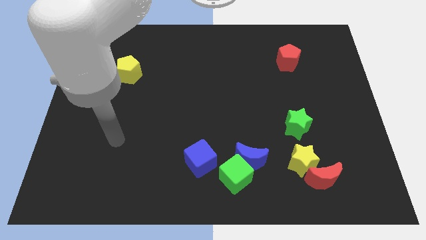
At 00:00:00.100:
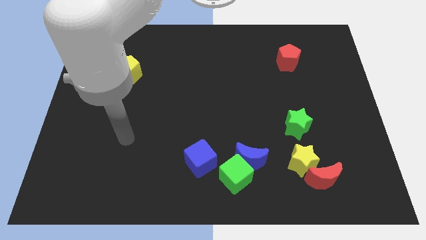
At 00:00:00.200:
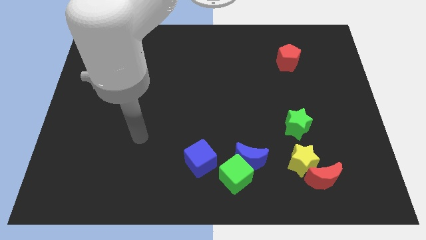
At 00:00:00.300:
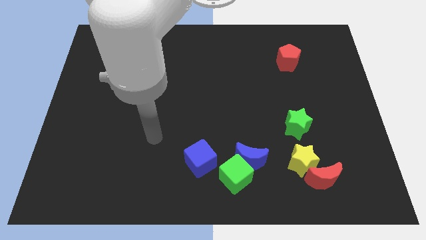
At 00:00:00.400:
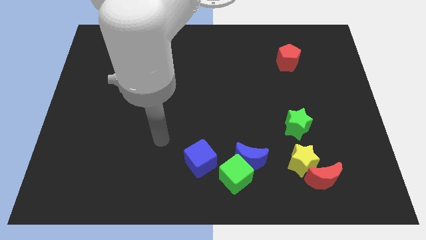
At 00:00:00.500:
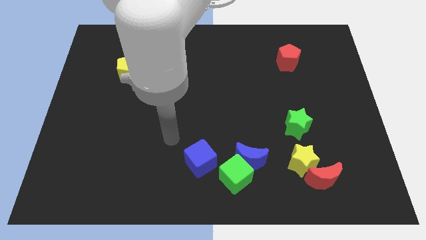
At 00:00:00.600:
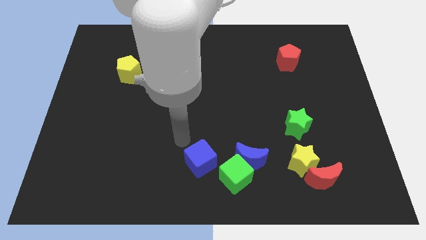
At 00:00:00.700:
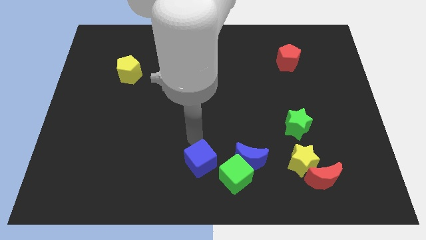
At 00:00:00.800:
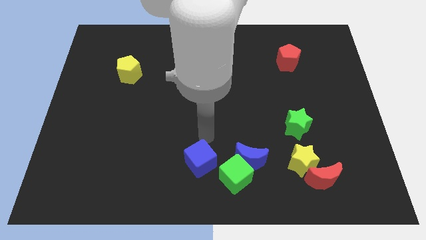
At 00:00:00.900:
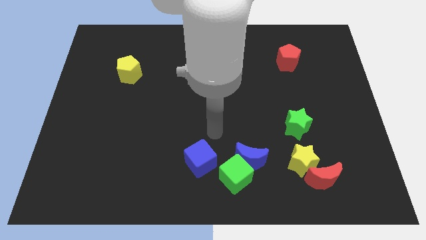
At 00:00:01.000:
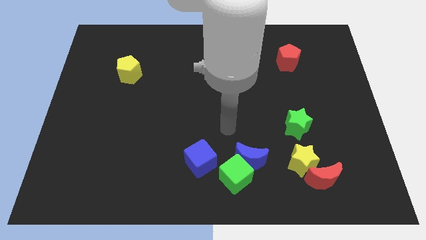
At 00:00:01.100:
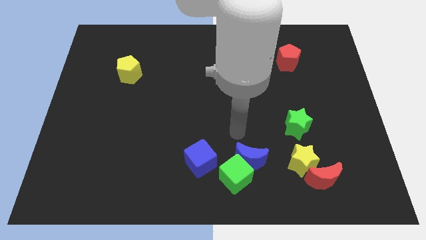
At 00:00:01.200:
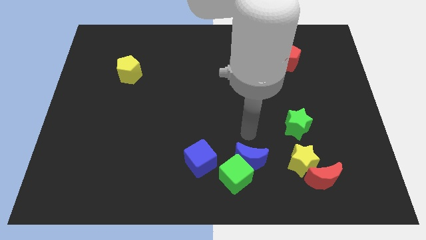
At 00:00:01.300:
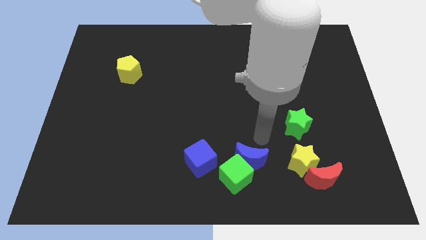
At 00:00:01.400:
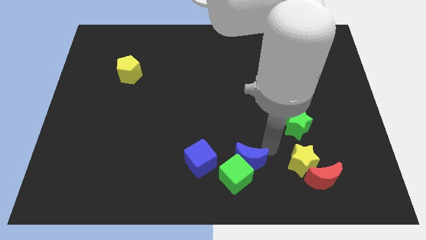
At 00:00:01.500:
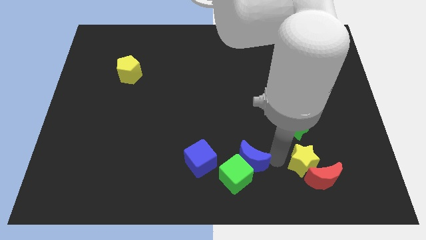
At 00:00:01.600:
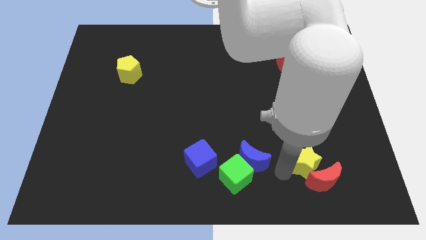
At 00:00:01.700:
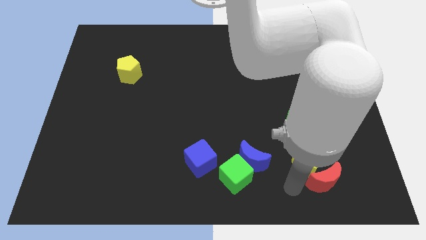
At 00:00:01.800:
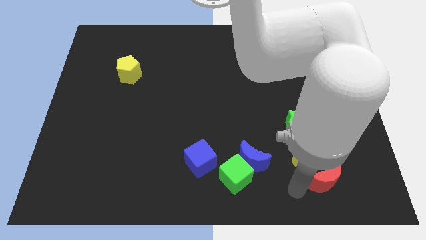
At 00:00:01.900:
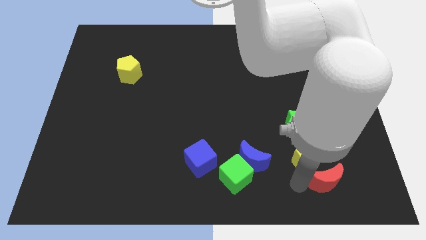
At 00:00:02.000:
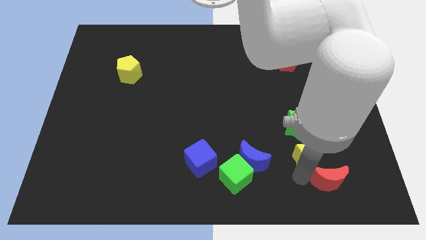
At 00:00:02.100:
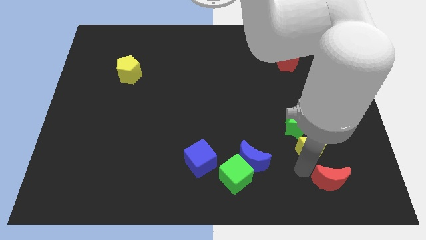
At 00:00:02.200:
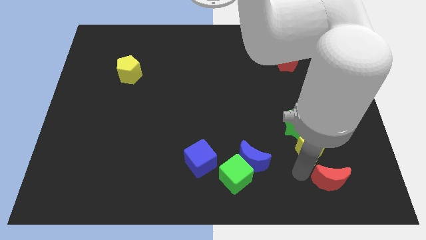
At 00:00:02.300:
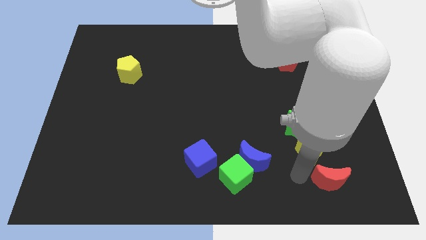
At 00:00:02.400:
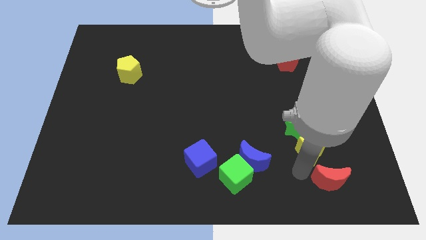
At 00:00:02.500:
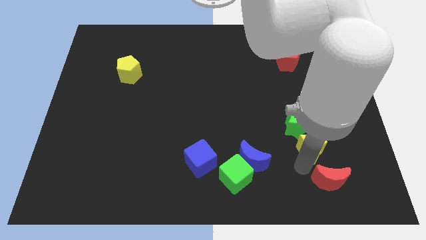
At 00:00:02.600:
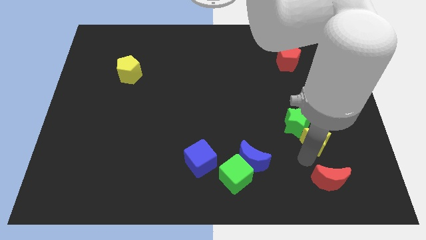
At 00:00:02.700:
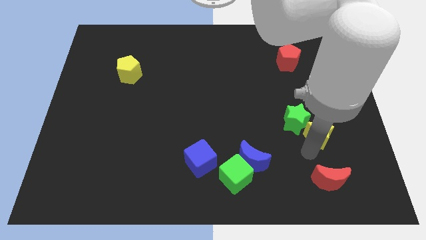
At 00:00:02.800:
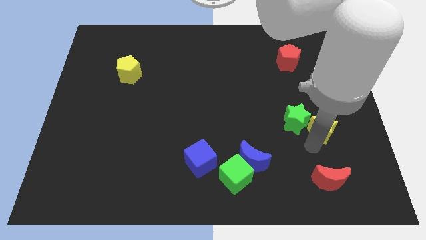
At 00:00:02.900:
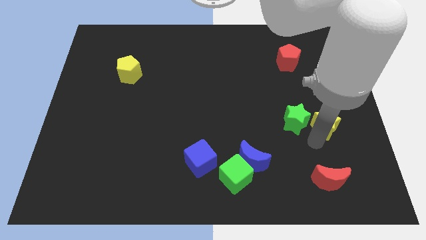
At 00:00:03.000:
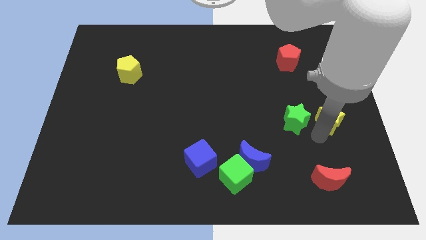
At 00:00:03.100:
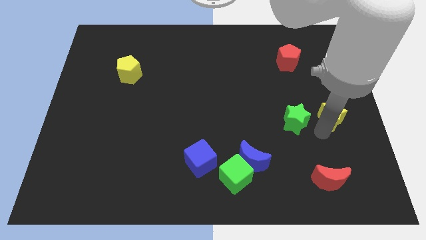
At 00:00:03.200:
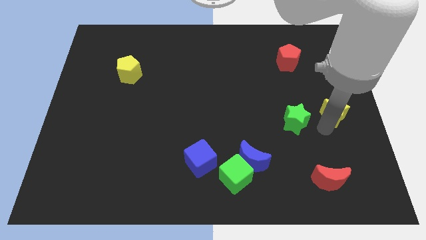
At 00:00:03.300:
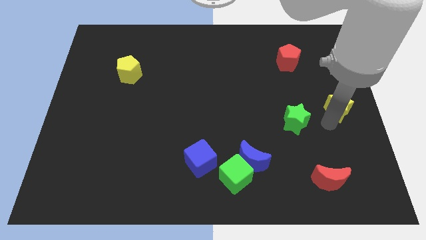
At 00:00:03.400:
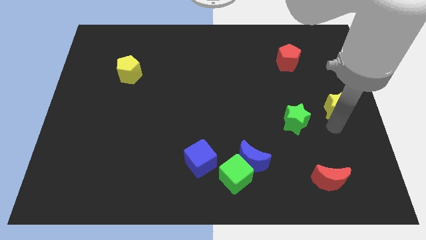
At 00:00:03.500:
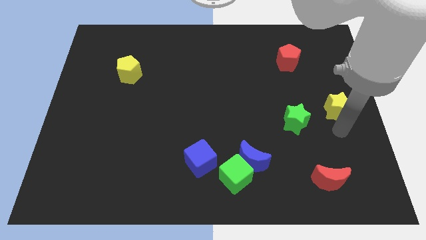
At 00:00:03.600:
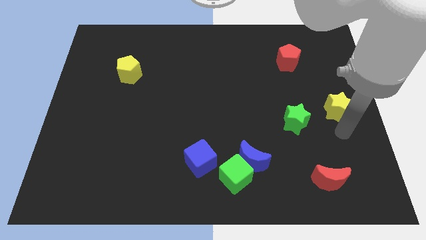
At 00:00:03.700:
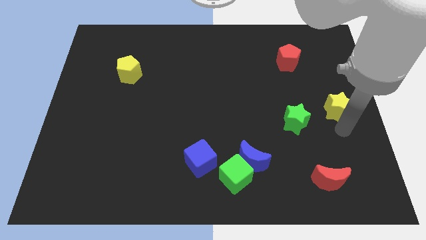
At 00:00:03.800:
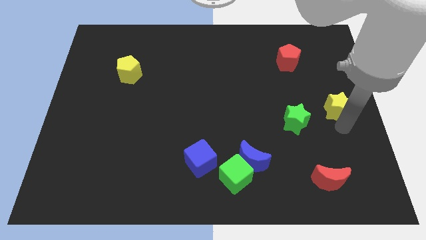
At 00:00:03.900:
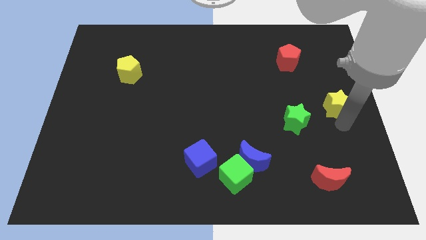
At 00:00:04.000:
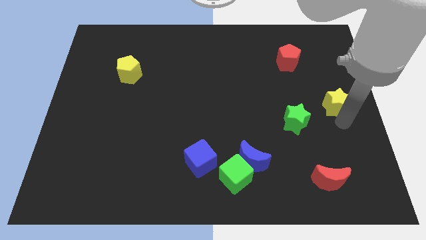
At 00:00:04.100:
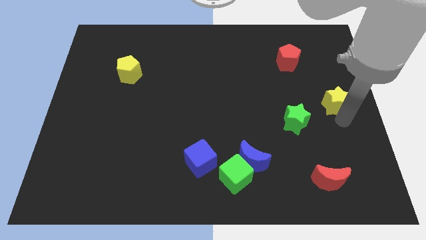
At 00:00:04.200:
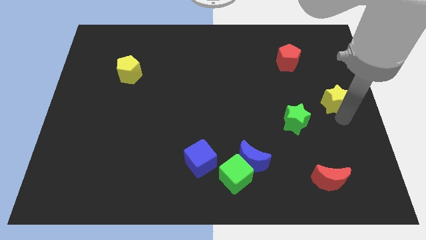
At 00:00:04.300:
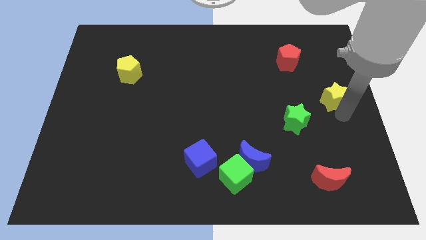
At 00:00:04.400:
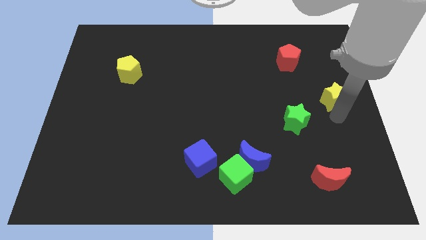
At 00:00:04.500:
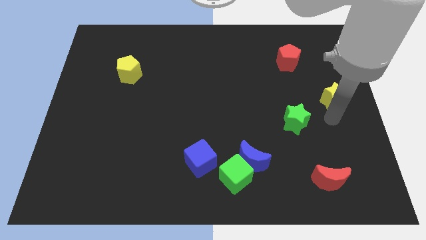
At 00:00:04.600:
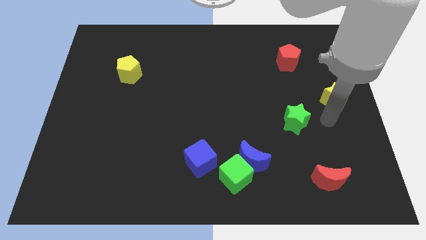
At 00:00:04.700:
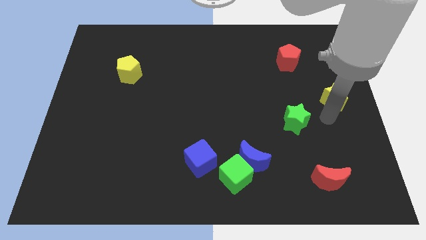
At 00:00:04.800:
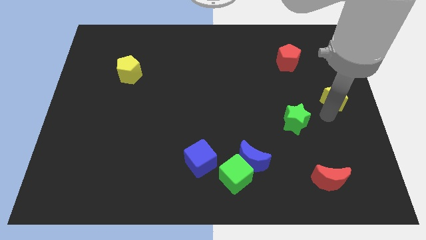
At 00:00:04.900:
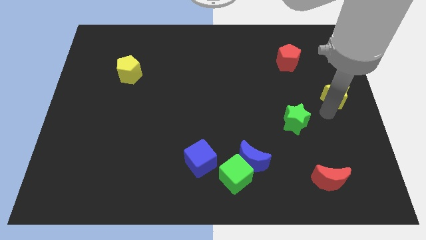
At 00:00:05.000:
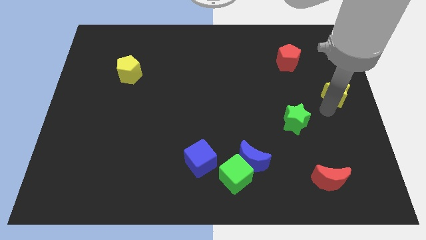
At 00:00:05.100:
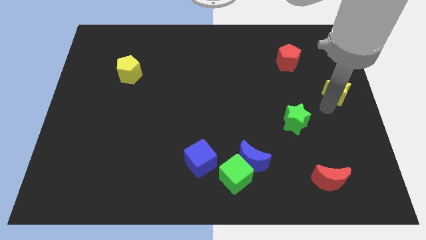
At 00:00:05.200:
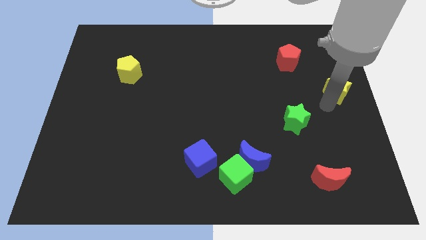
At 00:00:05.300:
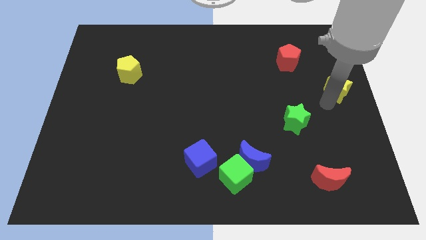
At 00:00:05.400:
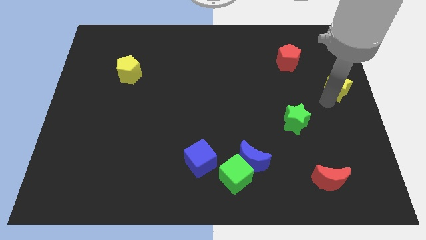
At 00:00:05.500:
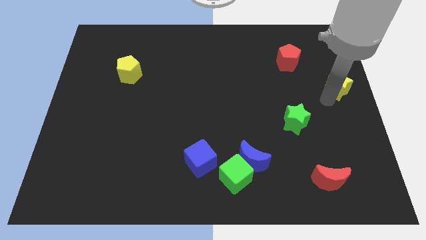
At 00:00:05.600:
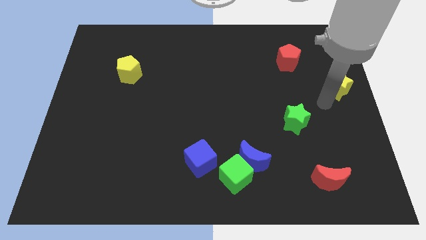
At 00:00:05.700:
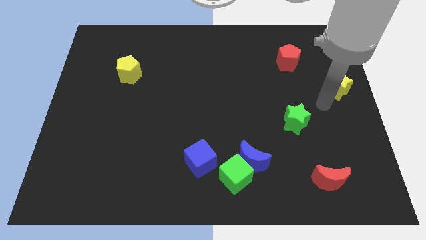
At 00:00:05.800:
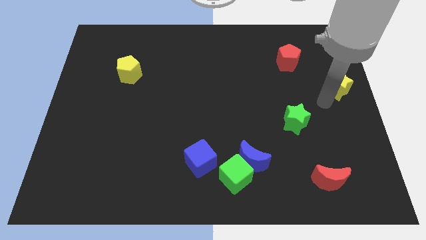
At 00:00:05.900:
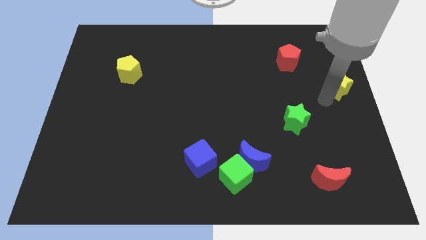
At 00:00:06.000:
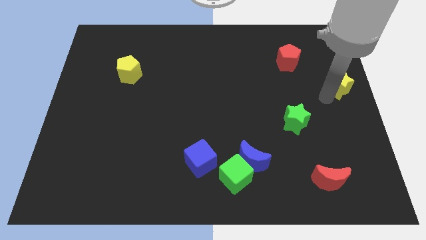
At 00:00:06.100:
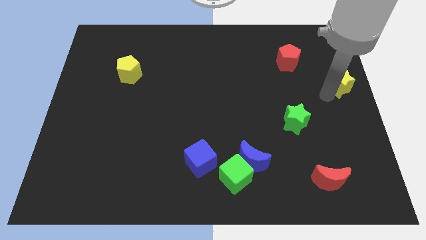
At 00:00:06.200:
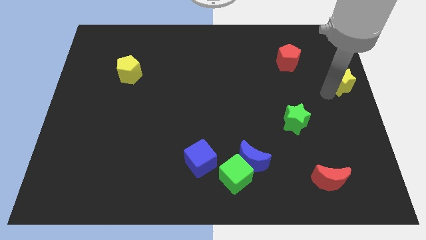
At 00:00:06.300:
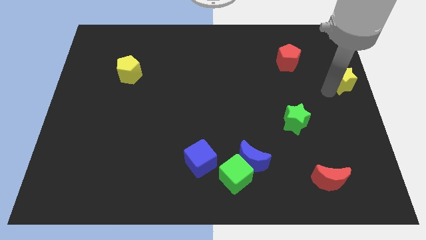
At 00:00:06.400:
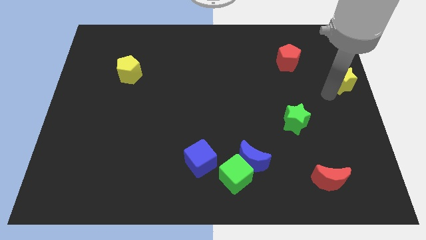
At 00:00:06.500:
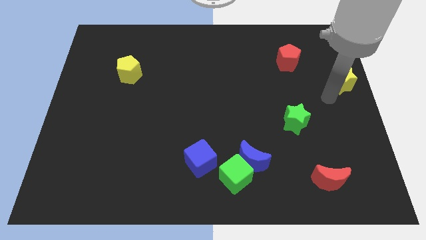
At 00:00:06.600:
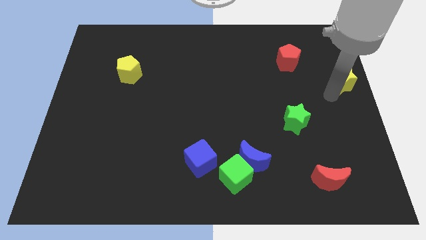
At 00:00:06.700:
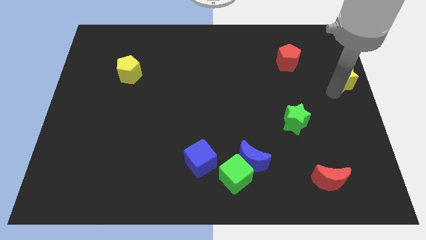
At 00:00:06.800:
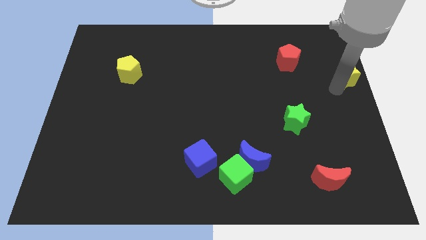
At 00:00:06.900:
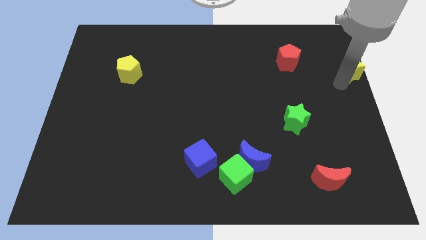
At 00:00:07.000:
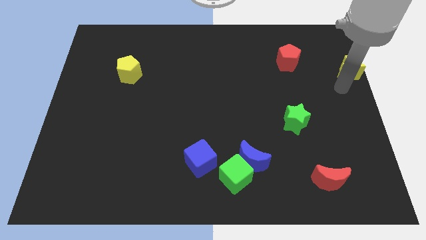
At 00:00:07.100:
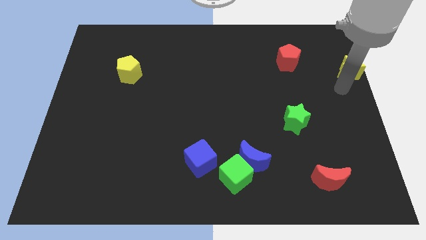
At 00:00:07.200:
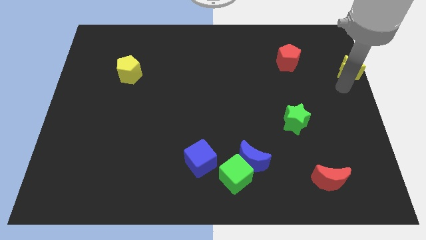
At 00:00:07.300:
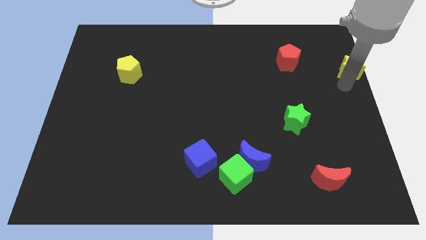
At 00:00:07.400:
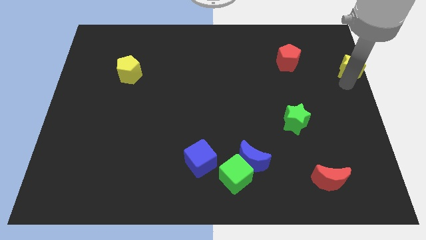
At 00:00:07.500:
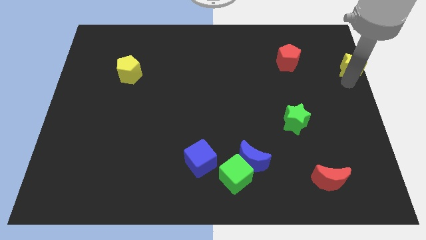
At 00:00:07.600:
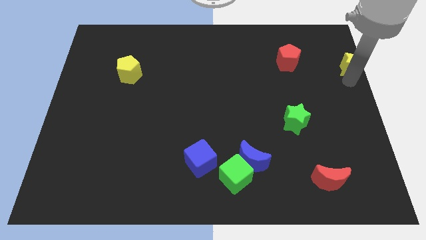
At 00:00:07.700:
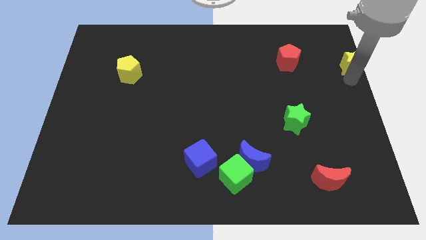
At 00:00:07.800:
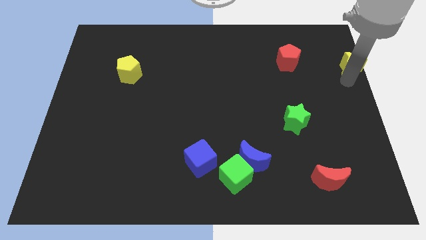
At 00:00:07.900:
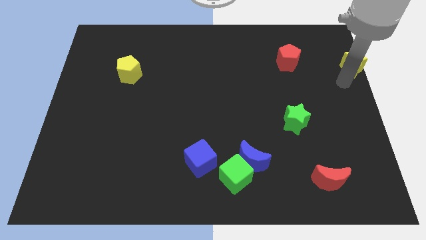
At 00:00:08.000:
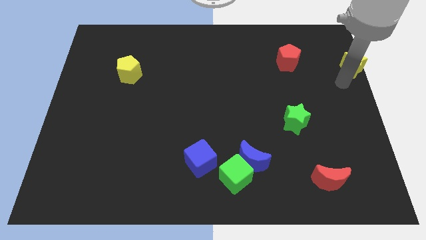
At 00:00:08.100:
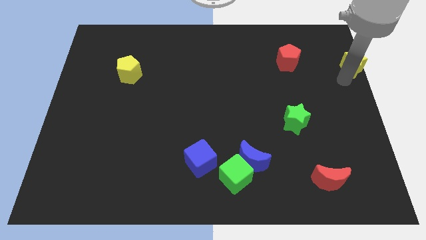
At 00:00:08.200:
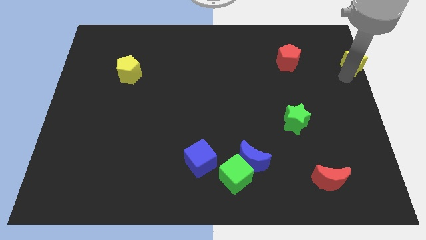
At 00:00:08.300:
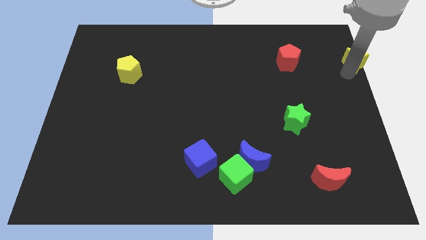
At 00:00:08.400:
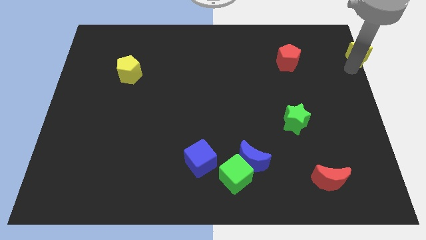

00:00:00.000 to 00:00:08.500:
slide the yellow star to the upper right corner
